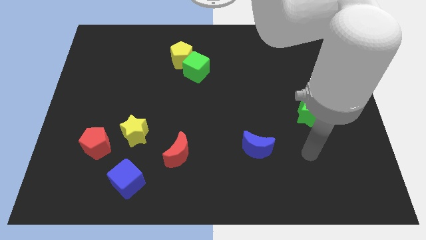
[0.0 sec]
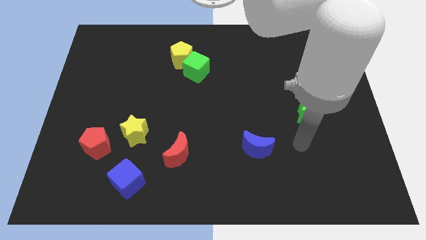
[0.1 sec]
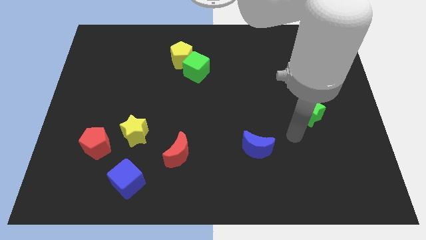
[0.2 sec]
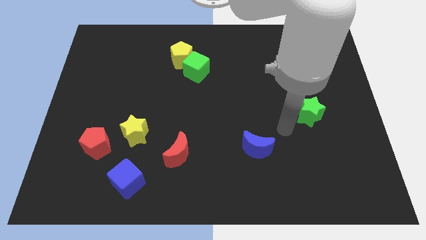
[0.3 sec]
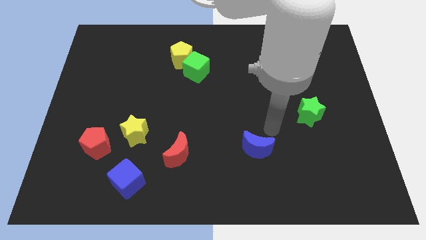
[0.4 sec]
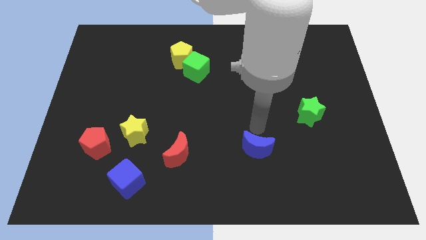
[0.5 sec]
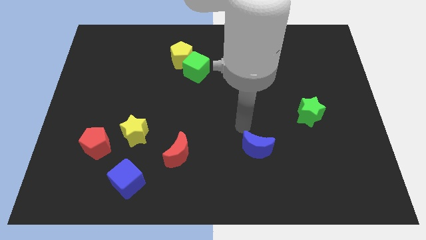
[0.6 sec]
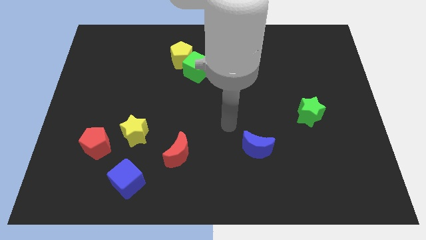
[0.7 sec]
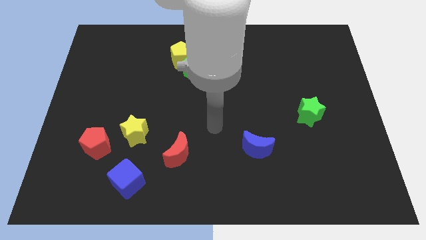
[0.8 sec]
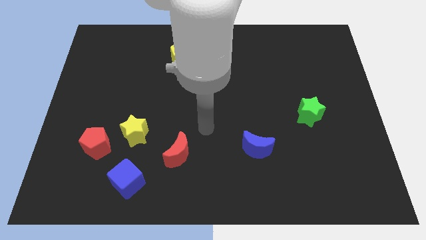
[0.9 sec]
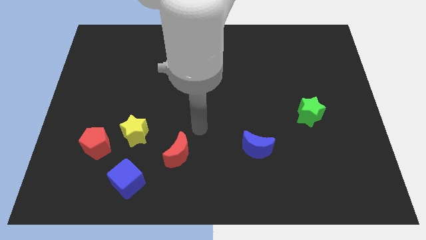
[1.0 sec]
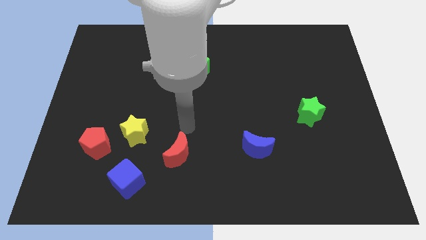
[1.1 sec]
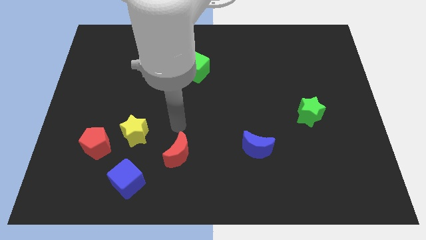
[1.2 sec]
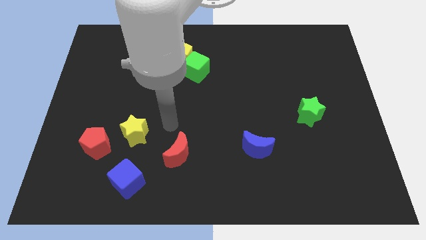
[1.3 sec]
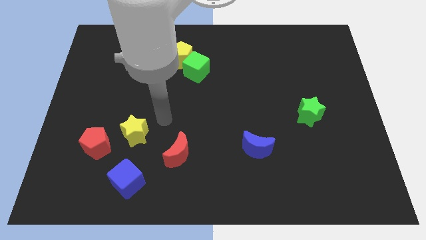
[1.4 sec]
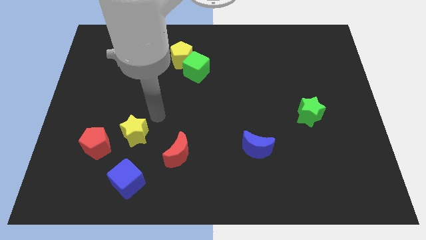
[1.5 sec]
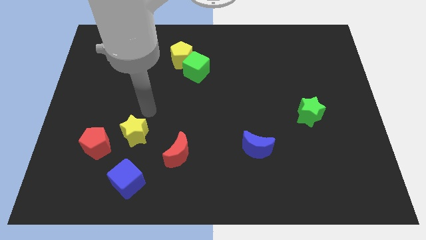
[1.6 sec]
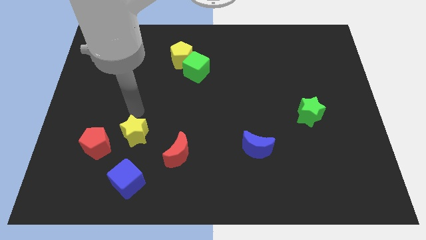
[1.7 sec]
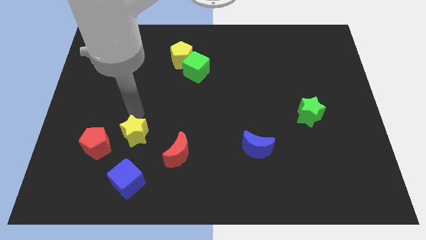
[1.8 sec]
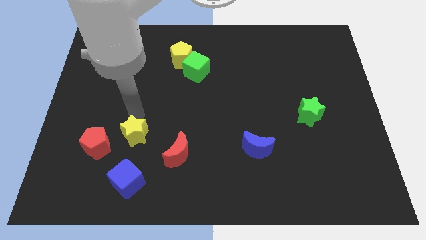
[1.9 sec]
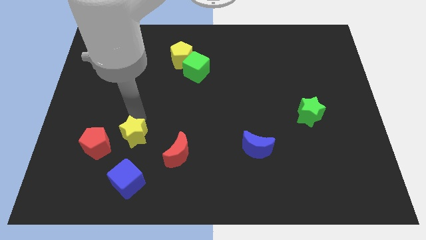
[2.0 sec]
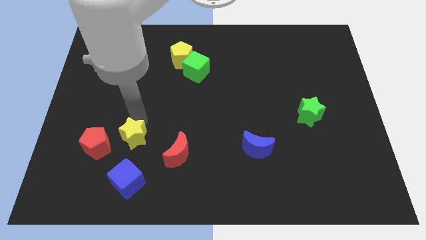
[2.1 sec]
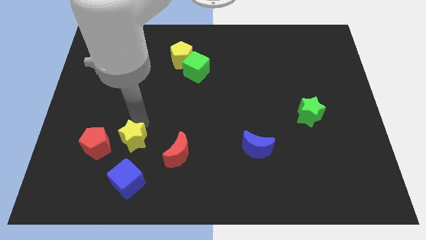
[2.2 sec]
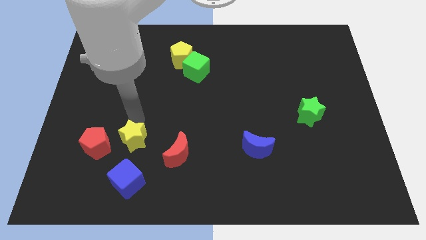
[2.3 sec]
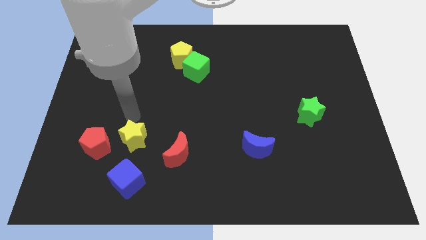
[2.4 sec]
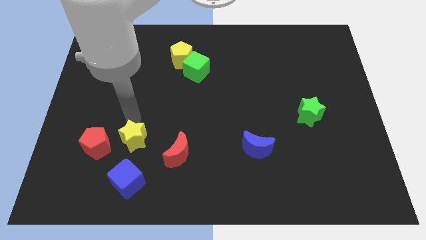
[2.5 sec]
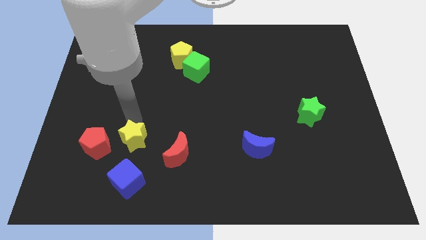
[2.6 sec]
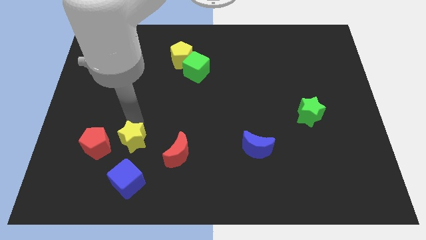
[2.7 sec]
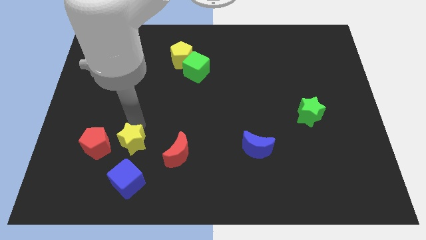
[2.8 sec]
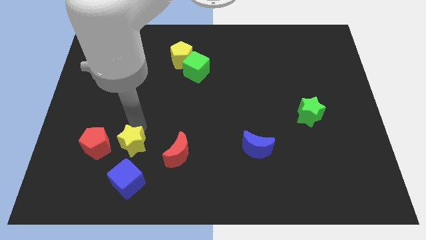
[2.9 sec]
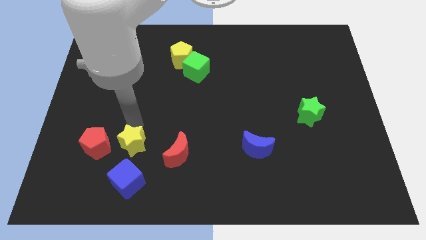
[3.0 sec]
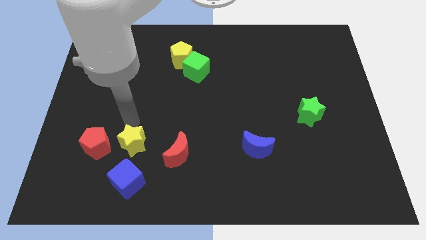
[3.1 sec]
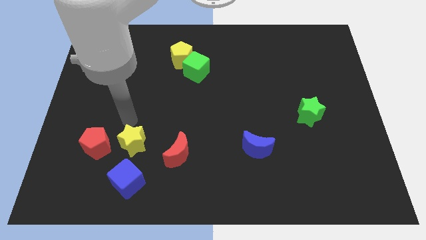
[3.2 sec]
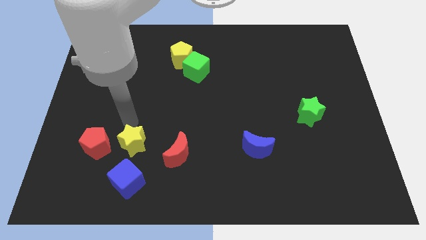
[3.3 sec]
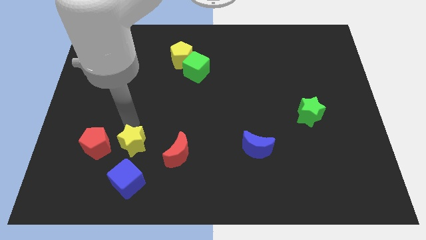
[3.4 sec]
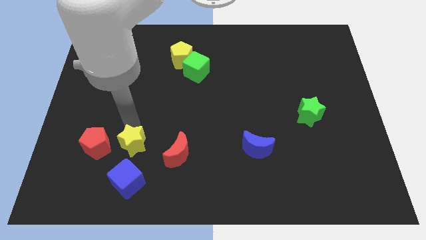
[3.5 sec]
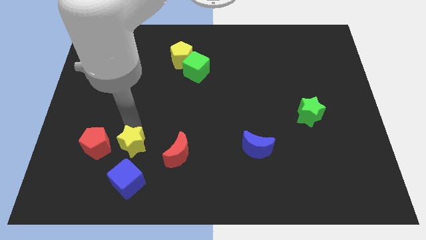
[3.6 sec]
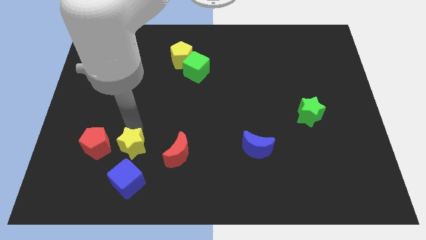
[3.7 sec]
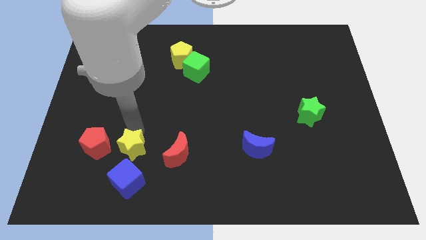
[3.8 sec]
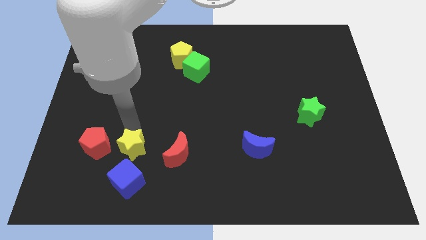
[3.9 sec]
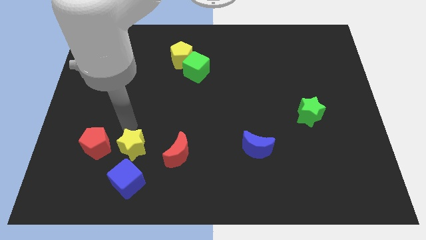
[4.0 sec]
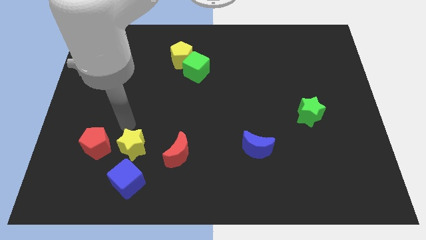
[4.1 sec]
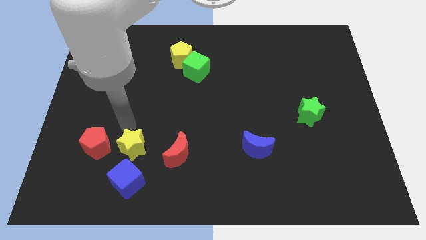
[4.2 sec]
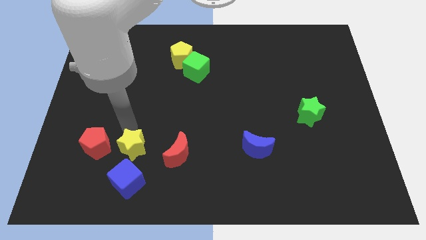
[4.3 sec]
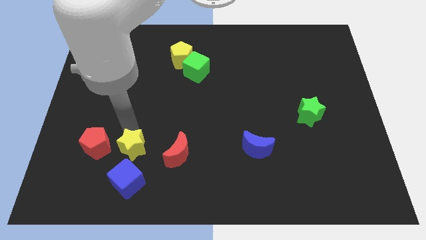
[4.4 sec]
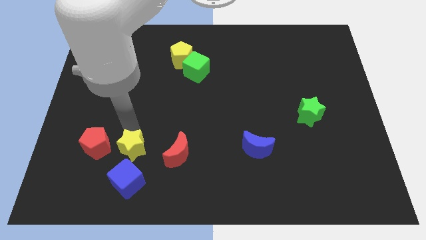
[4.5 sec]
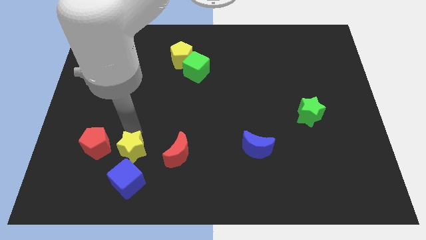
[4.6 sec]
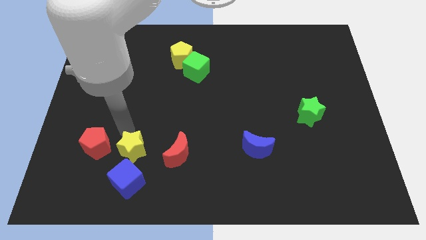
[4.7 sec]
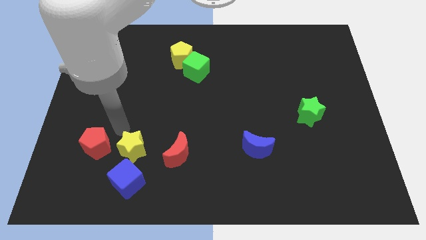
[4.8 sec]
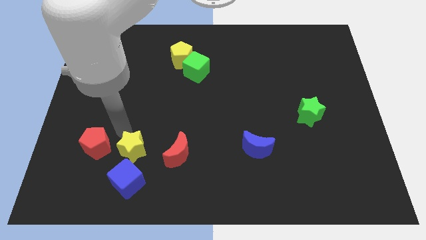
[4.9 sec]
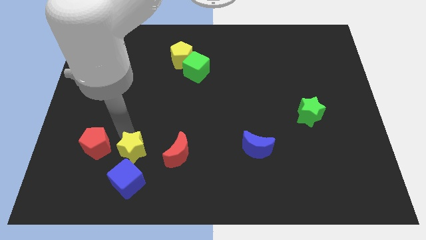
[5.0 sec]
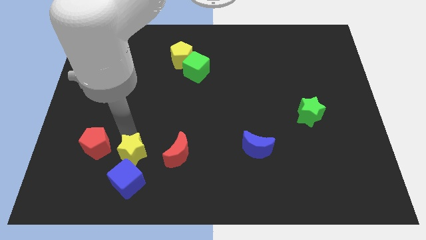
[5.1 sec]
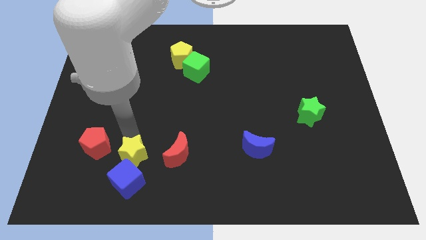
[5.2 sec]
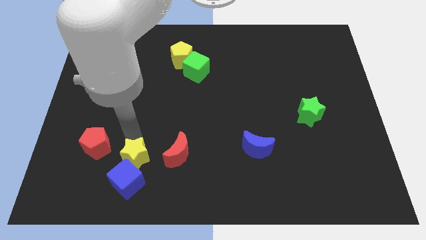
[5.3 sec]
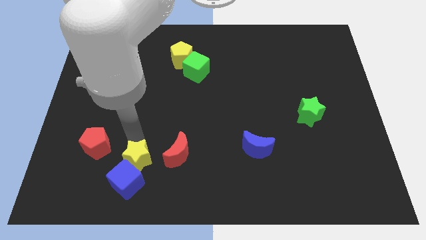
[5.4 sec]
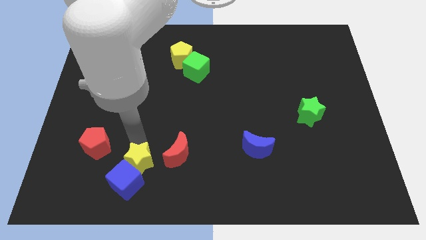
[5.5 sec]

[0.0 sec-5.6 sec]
slide the yellow star diagonally down and to the left of the red moon

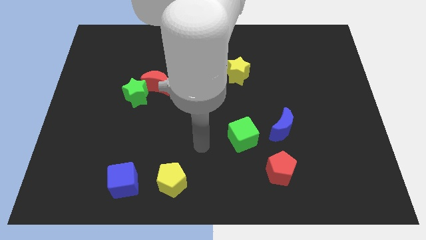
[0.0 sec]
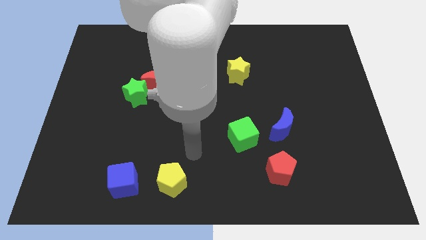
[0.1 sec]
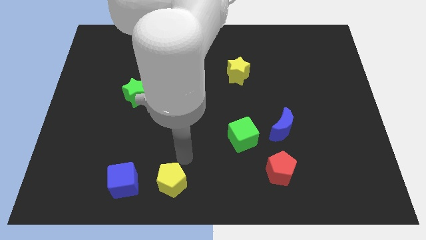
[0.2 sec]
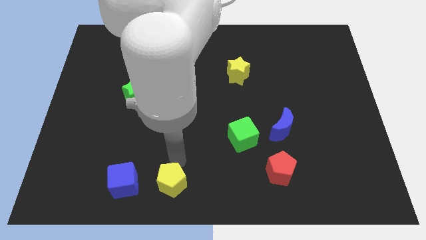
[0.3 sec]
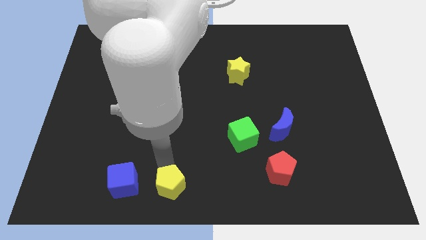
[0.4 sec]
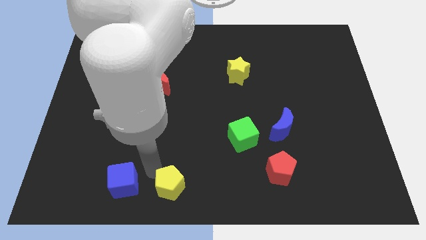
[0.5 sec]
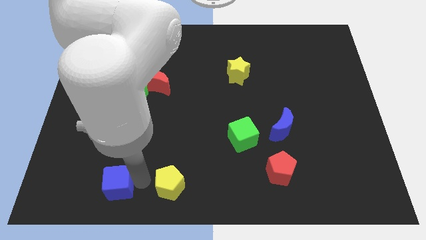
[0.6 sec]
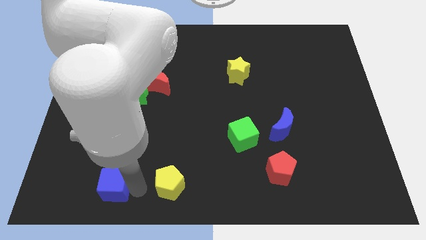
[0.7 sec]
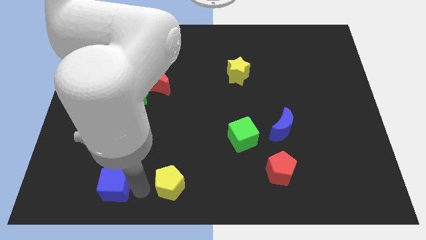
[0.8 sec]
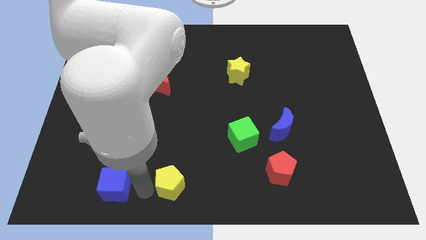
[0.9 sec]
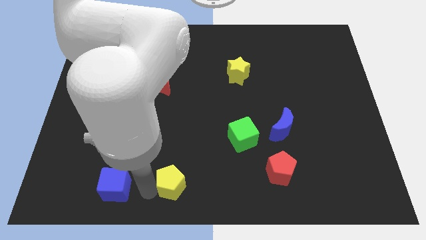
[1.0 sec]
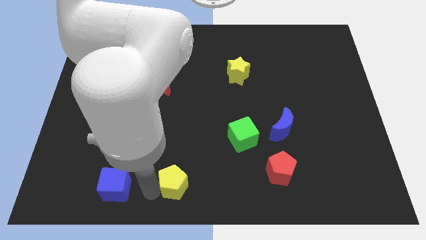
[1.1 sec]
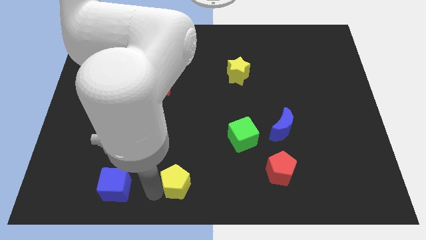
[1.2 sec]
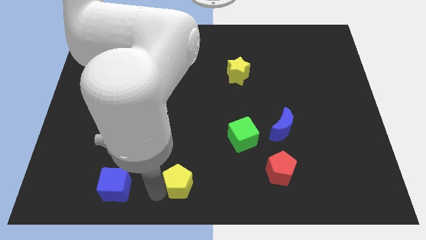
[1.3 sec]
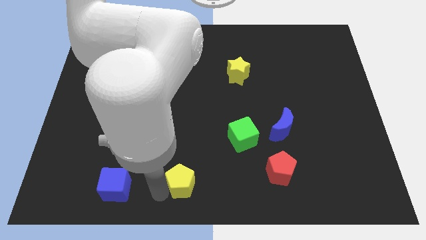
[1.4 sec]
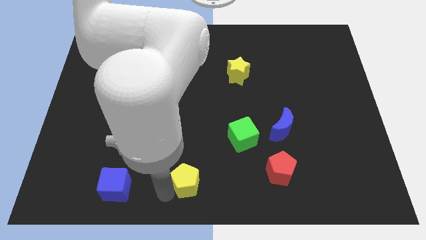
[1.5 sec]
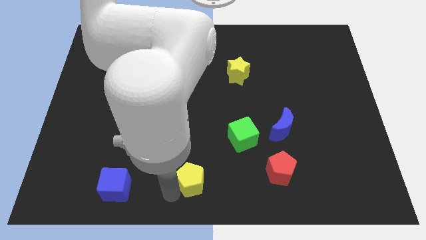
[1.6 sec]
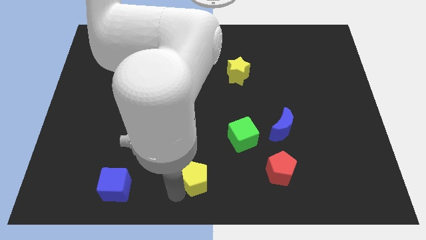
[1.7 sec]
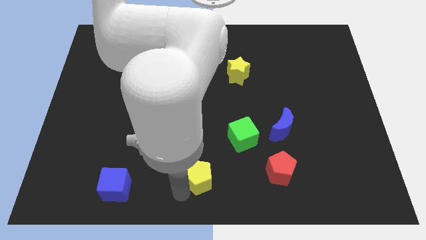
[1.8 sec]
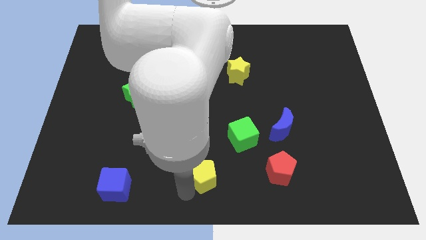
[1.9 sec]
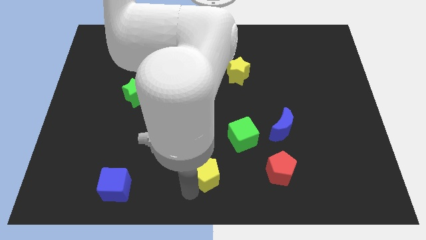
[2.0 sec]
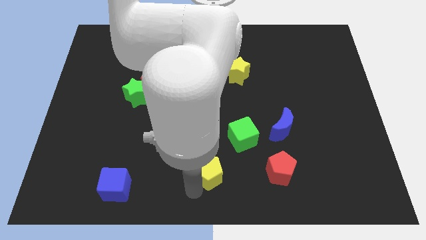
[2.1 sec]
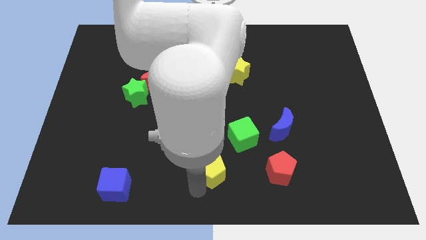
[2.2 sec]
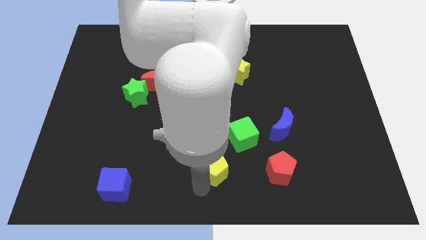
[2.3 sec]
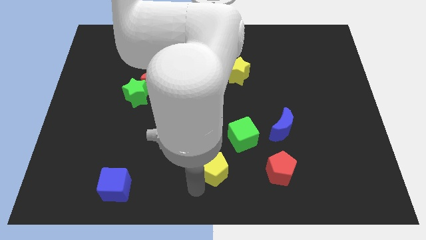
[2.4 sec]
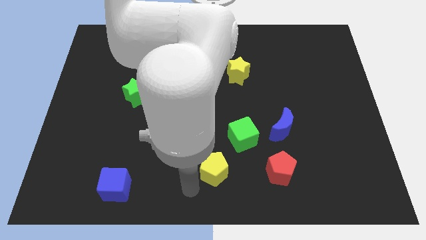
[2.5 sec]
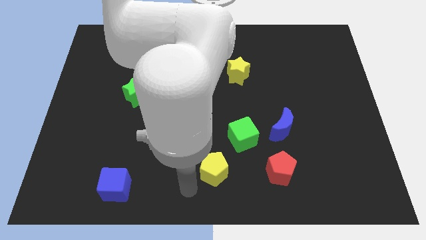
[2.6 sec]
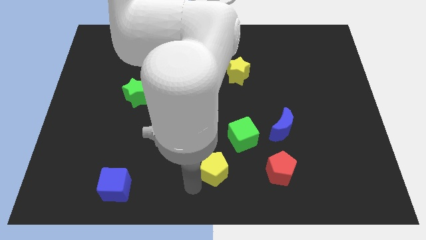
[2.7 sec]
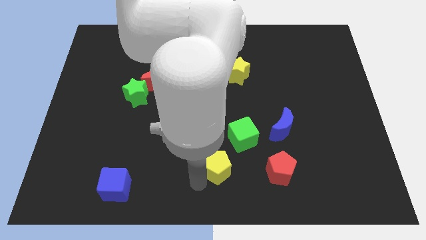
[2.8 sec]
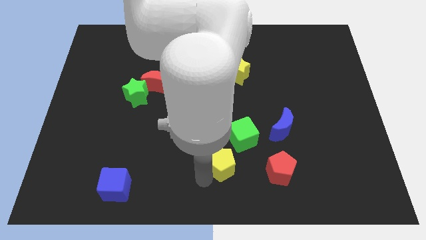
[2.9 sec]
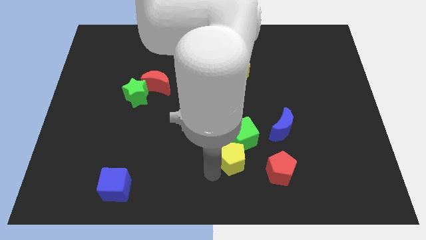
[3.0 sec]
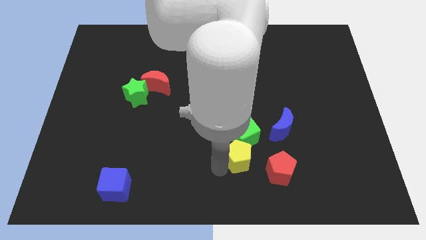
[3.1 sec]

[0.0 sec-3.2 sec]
put the yellow pentagon diagonally down and to the left of the blue moon
